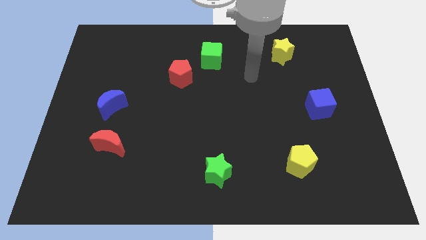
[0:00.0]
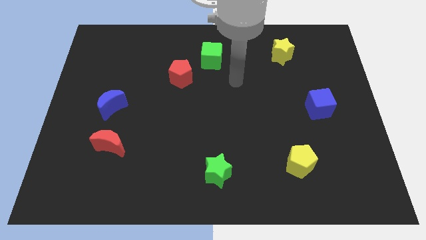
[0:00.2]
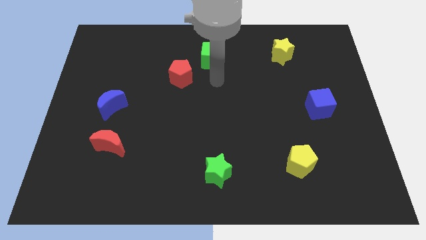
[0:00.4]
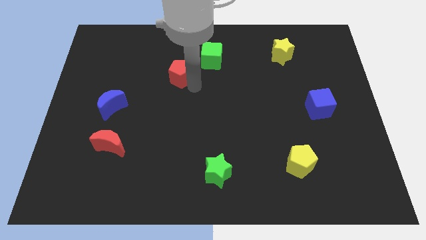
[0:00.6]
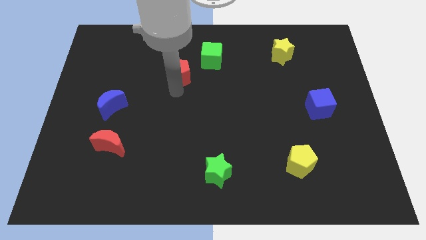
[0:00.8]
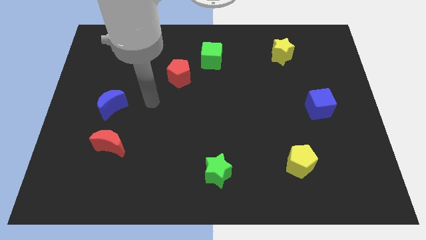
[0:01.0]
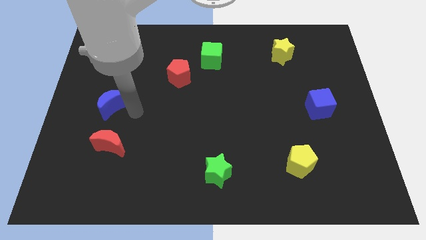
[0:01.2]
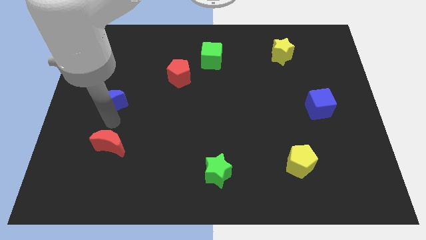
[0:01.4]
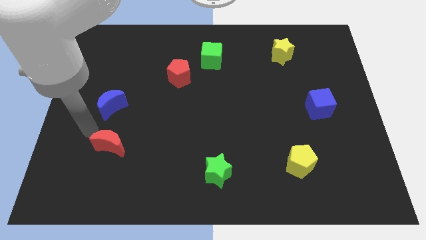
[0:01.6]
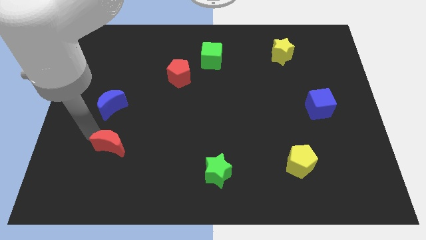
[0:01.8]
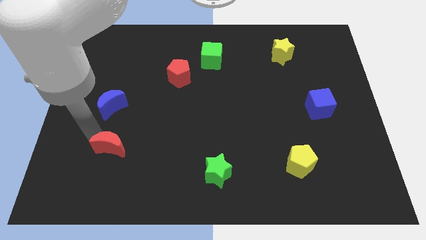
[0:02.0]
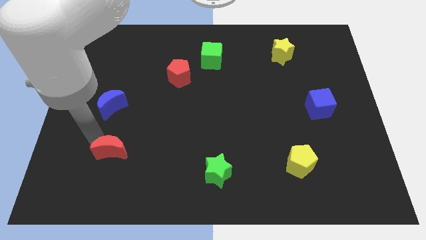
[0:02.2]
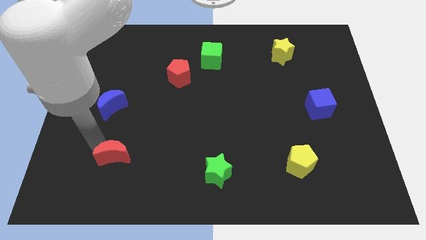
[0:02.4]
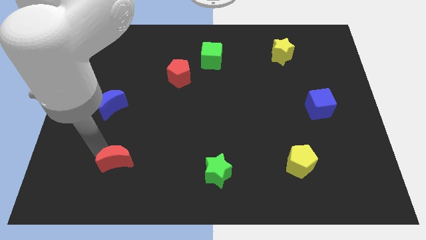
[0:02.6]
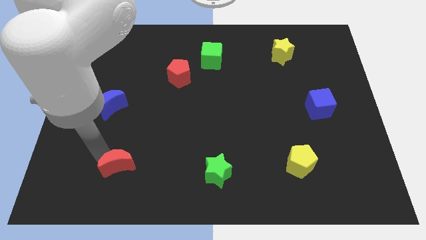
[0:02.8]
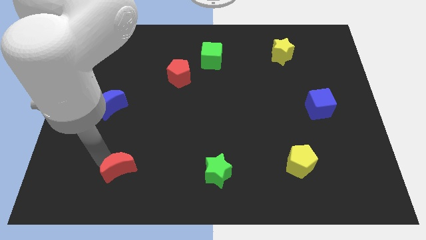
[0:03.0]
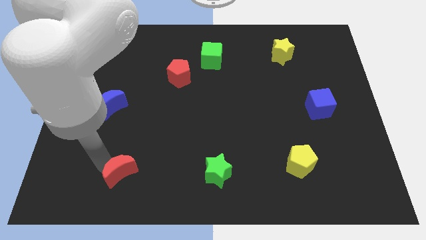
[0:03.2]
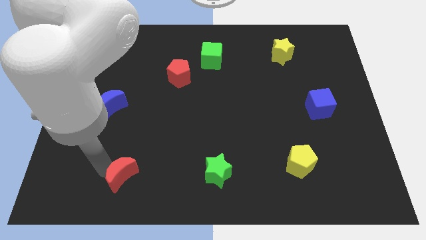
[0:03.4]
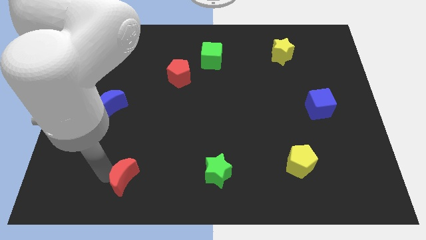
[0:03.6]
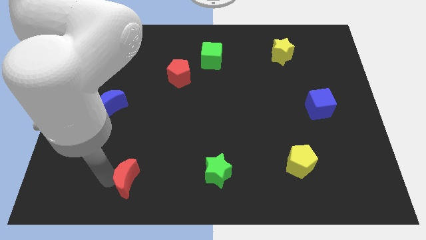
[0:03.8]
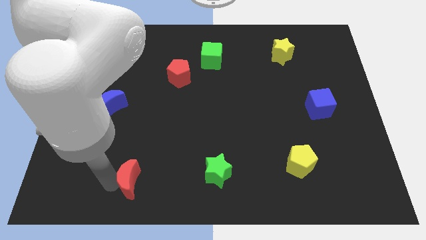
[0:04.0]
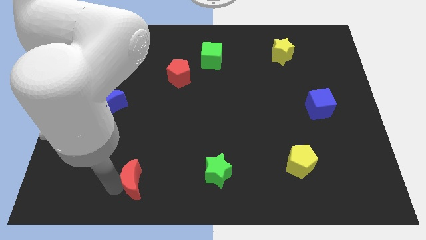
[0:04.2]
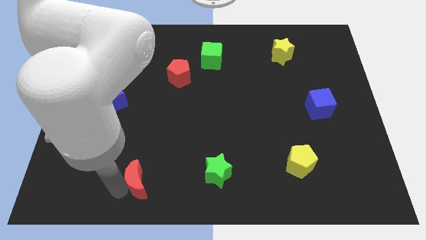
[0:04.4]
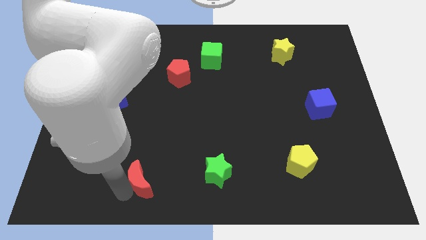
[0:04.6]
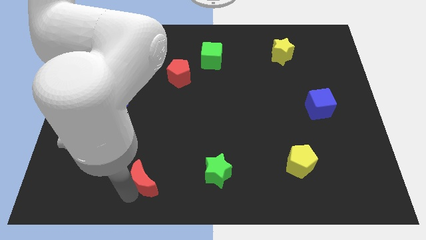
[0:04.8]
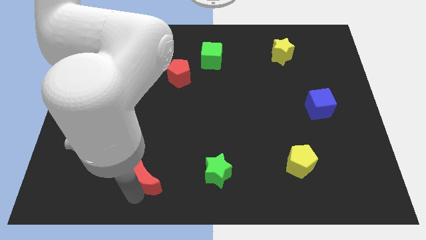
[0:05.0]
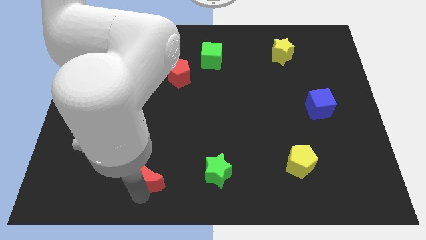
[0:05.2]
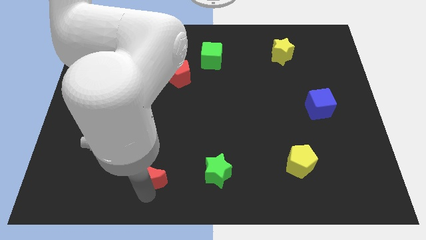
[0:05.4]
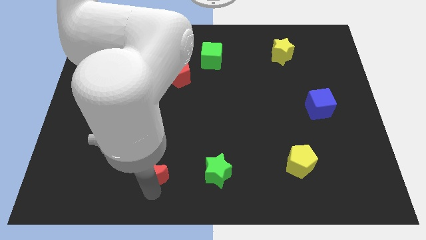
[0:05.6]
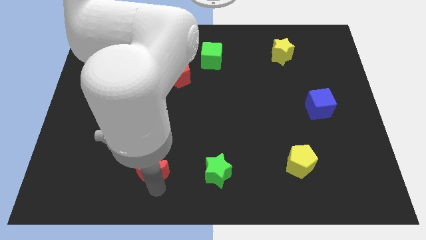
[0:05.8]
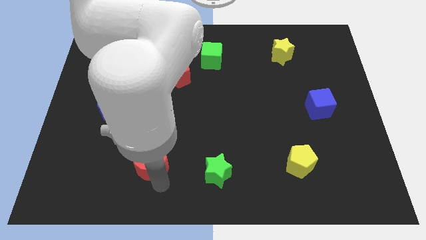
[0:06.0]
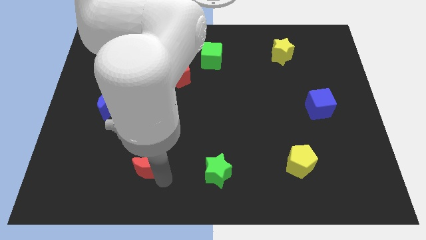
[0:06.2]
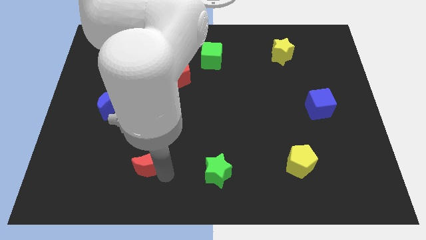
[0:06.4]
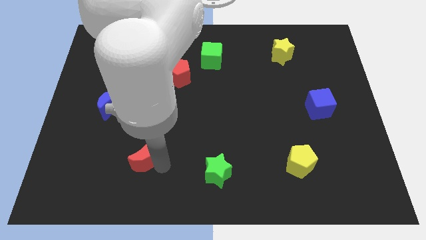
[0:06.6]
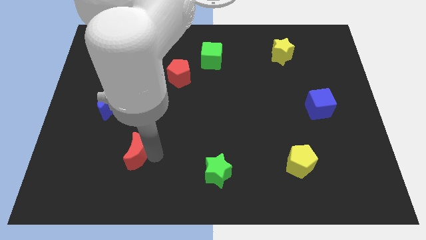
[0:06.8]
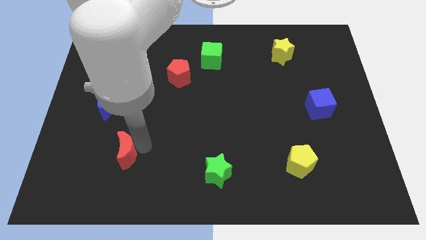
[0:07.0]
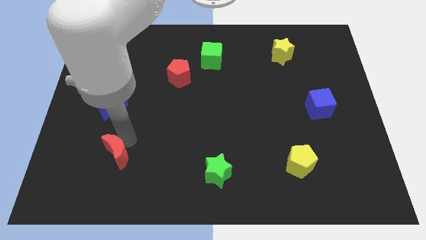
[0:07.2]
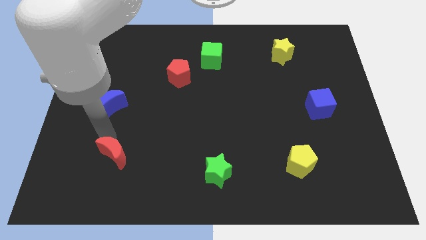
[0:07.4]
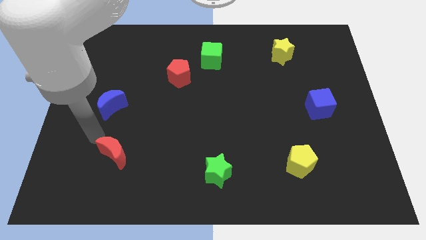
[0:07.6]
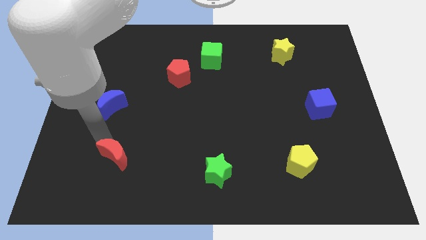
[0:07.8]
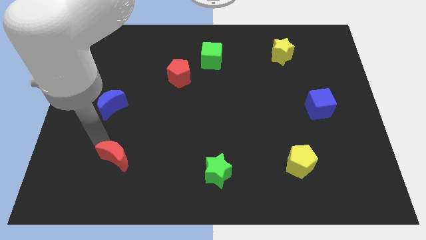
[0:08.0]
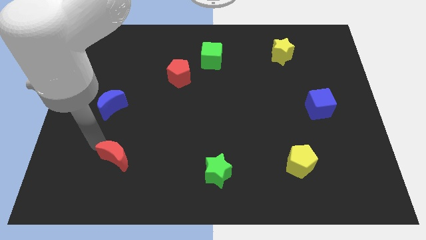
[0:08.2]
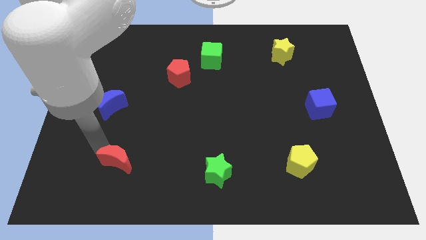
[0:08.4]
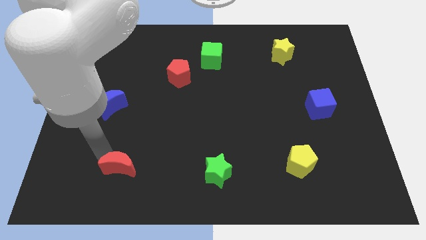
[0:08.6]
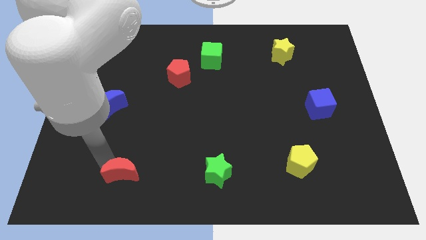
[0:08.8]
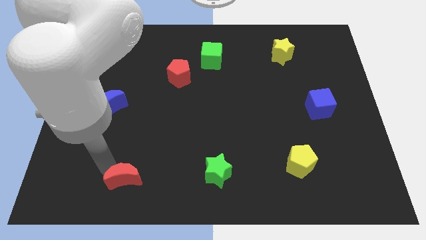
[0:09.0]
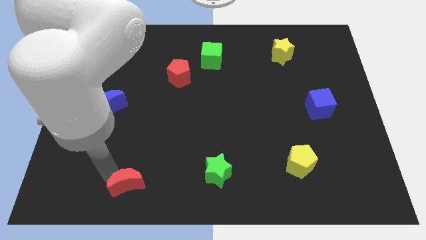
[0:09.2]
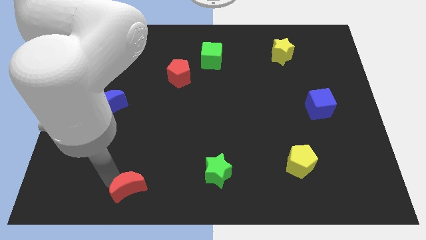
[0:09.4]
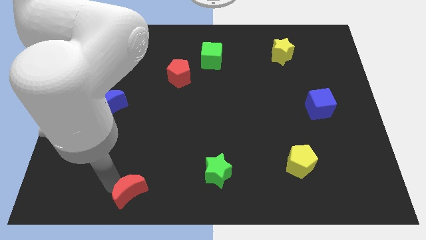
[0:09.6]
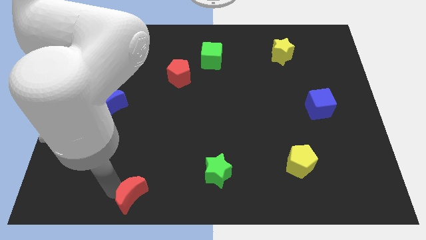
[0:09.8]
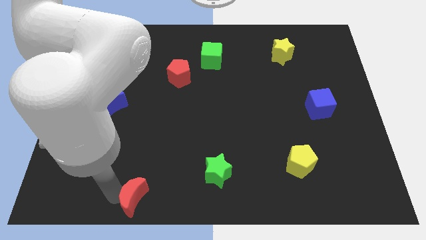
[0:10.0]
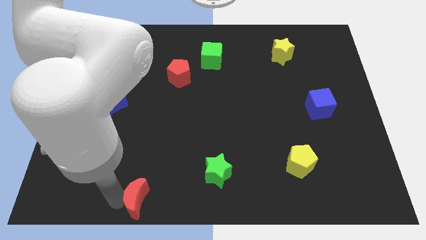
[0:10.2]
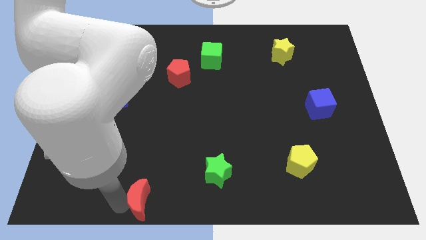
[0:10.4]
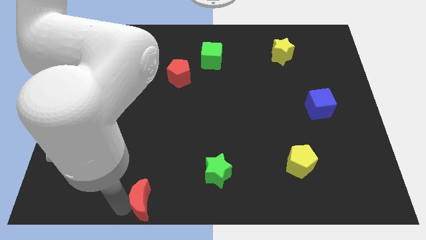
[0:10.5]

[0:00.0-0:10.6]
move the red moon to the bottom
